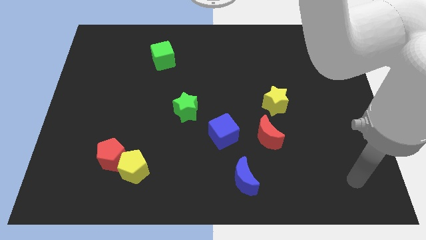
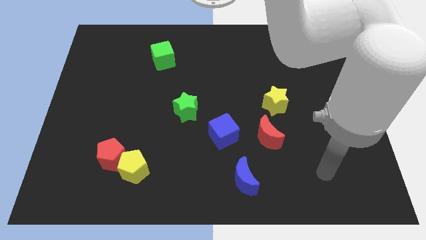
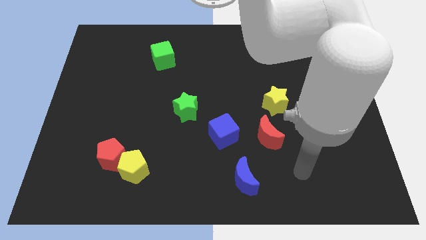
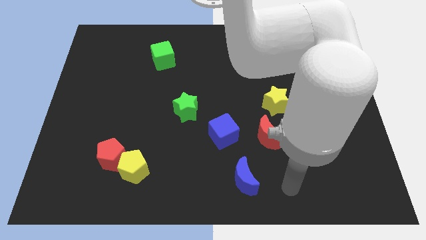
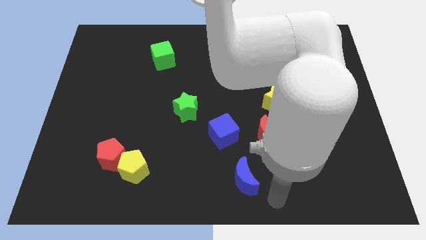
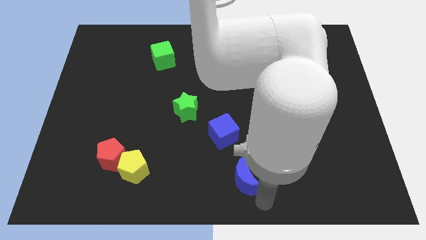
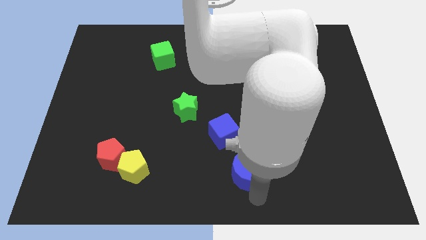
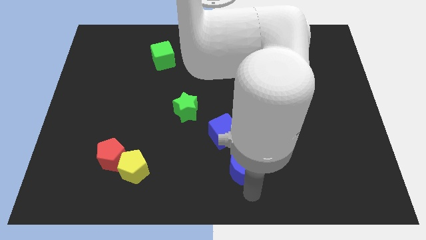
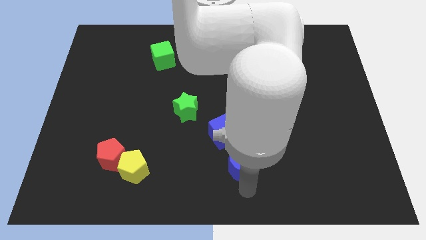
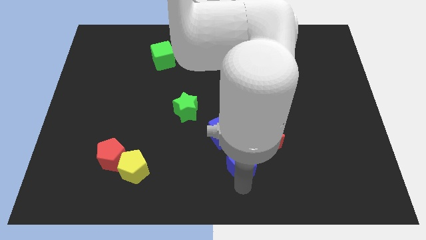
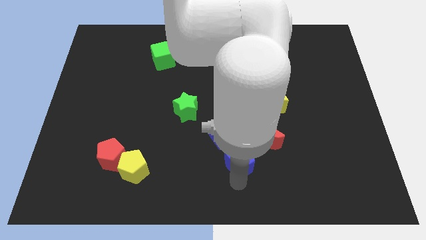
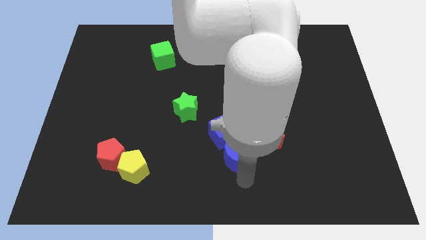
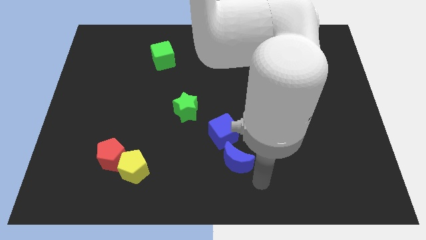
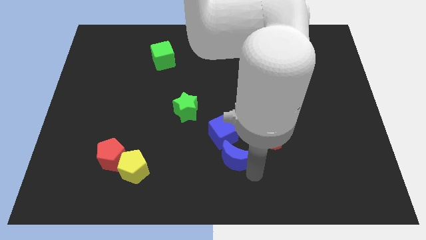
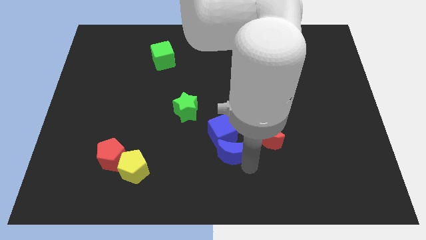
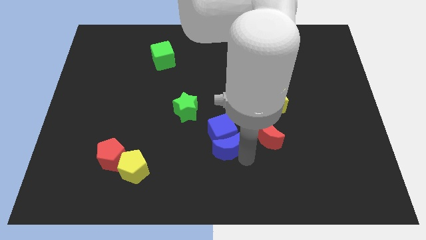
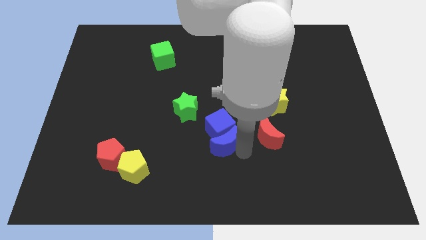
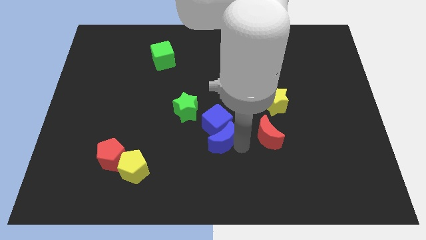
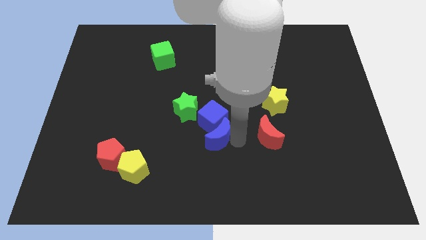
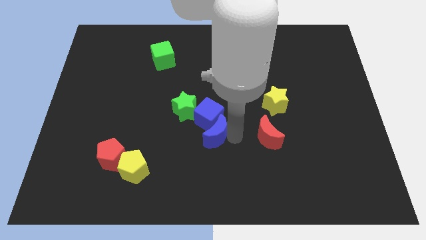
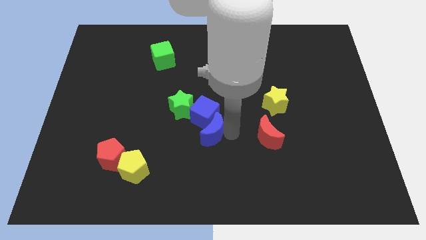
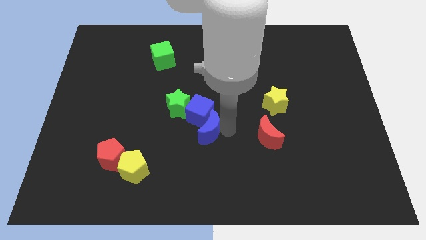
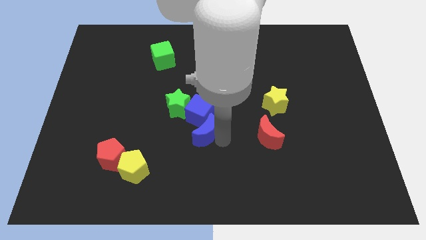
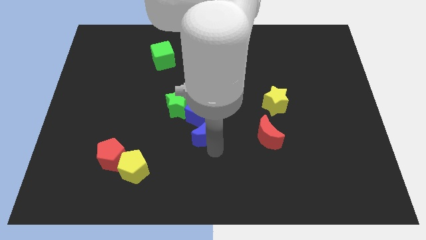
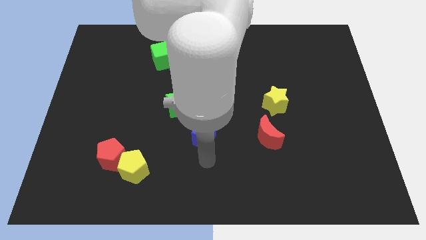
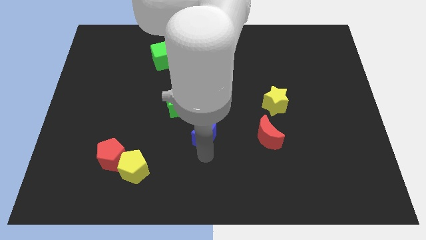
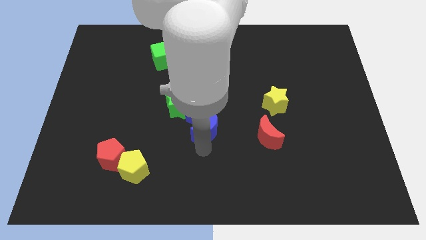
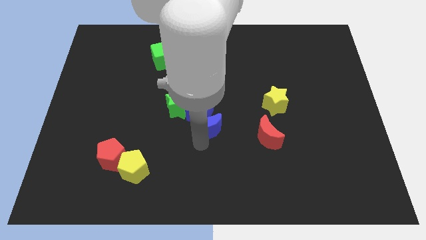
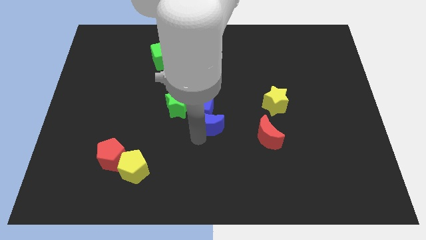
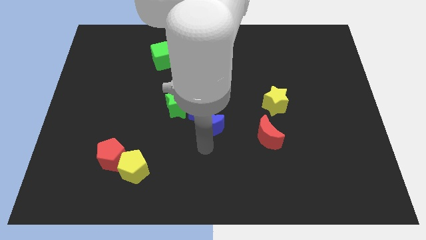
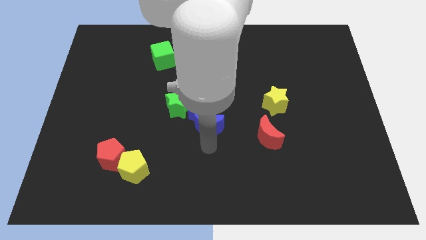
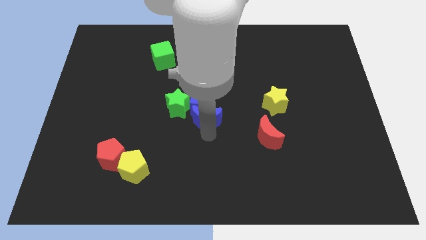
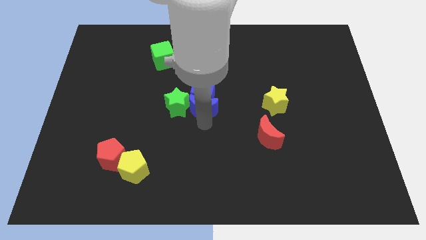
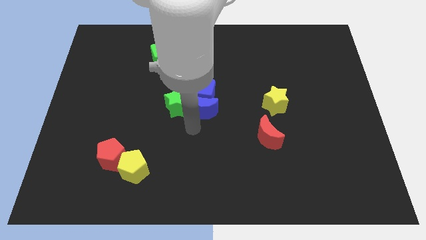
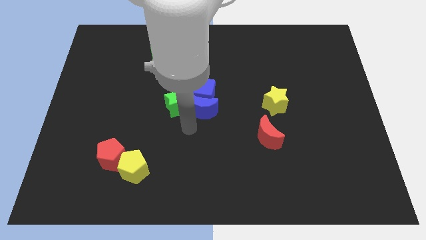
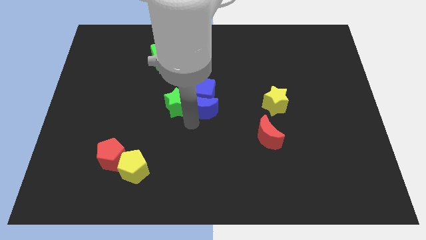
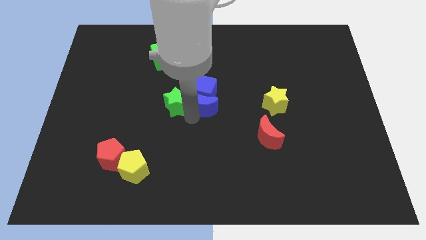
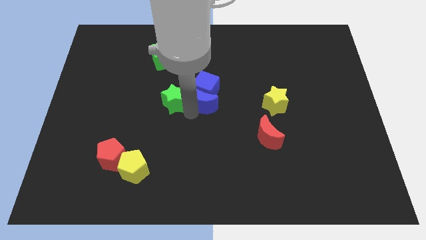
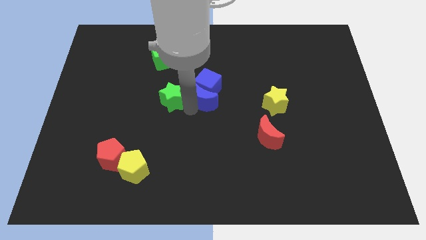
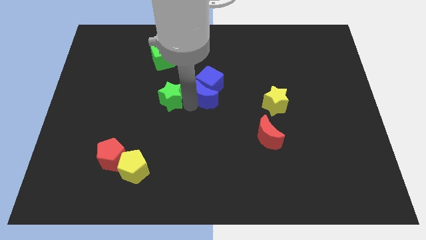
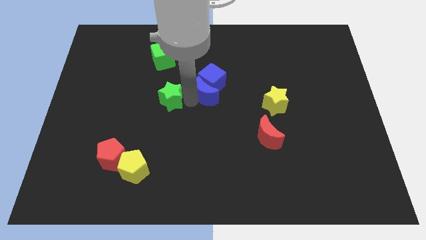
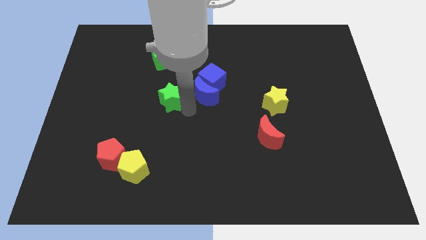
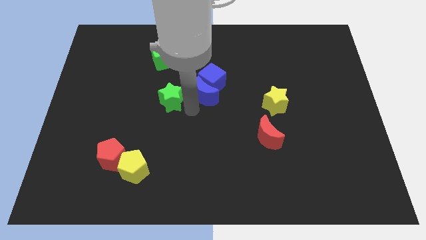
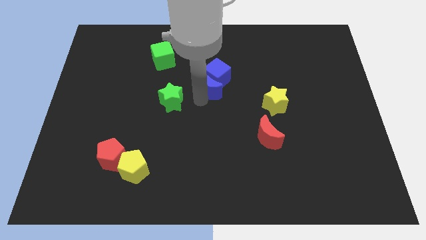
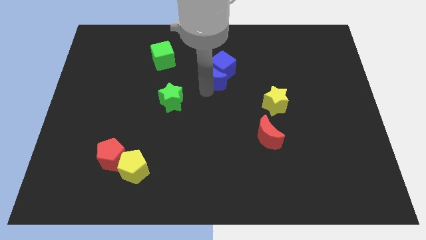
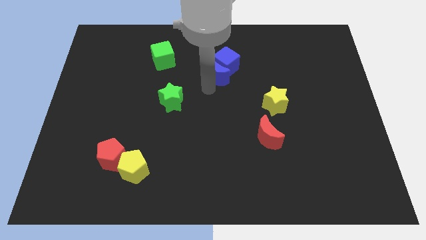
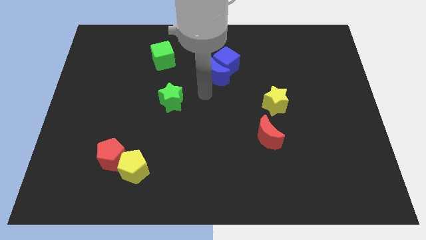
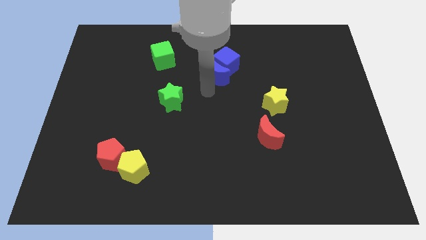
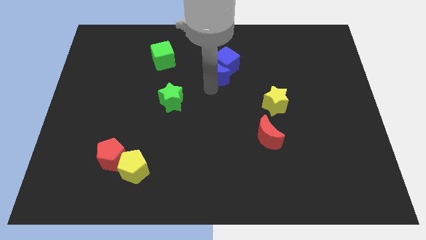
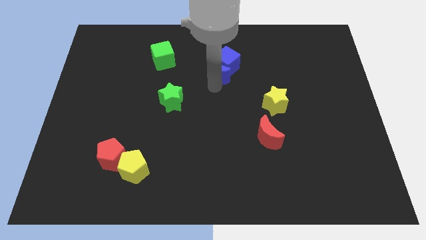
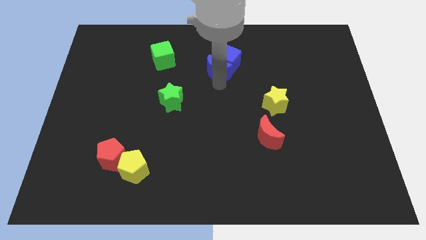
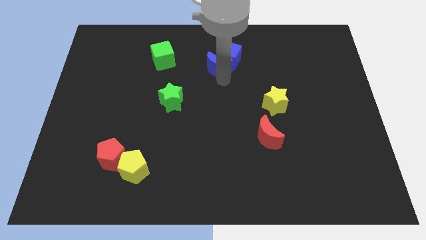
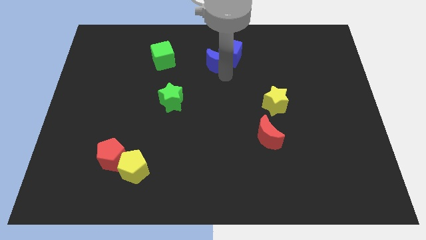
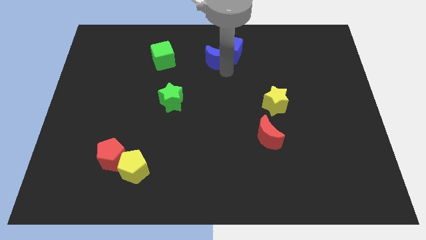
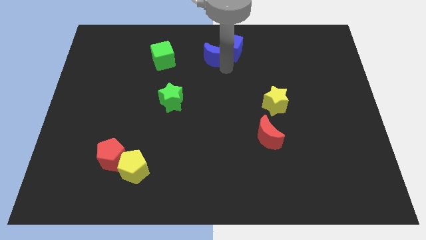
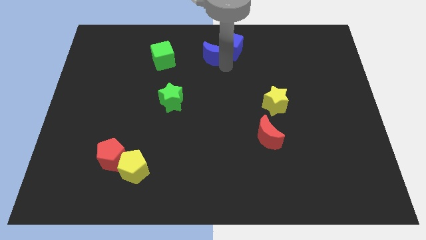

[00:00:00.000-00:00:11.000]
move the blue moon to the towards your base

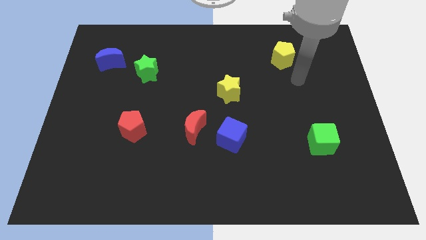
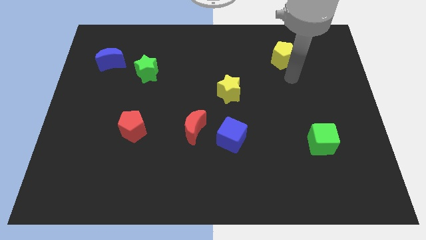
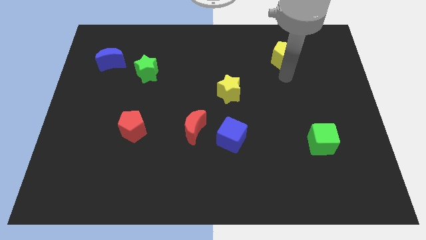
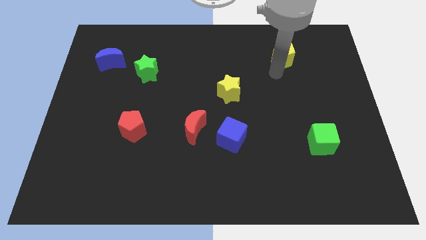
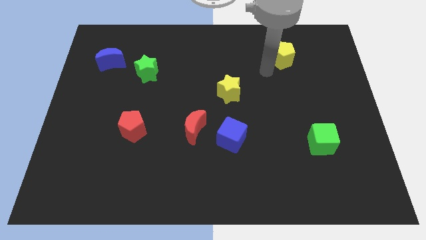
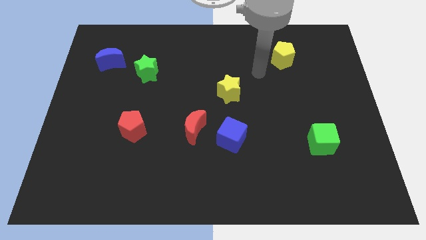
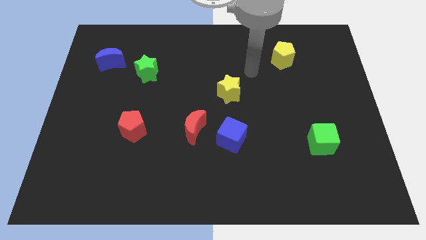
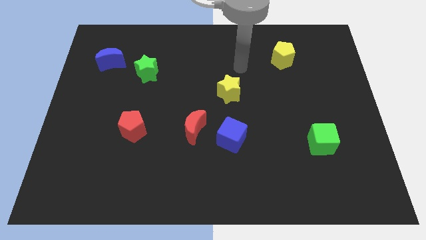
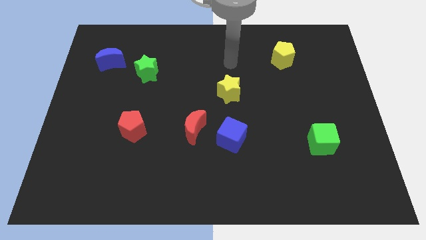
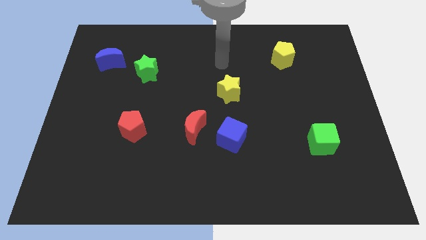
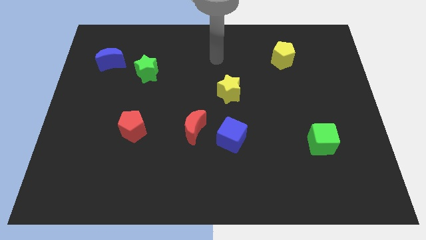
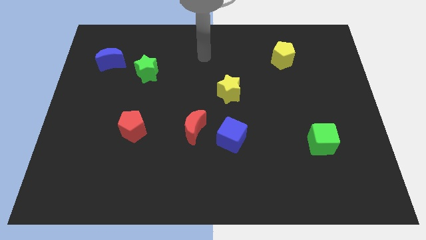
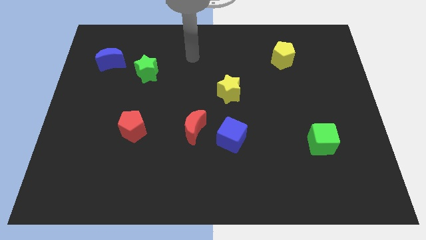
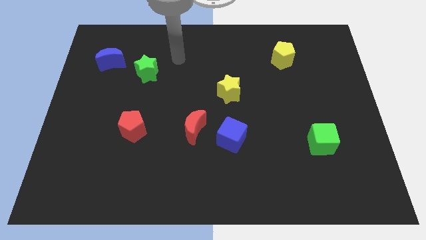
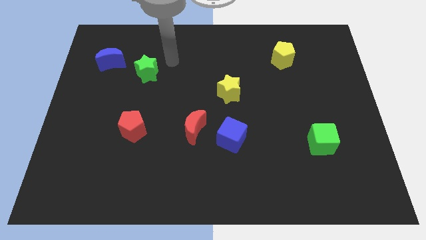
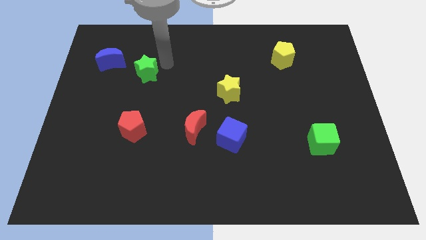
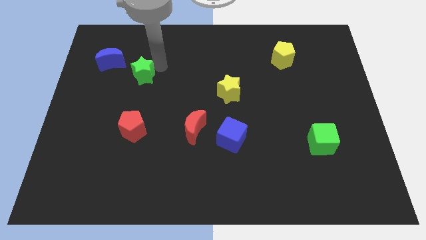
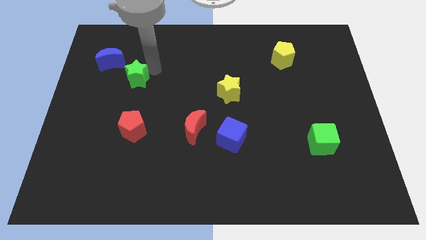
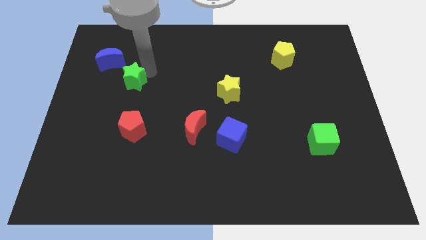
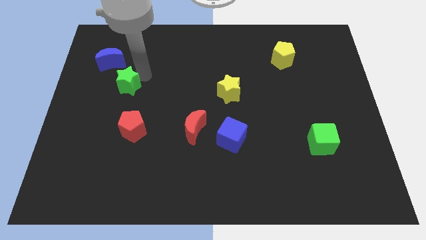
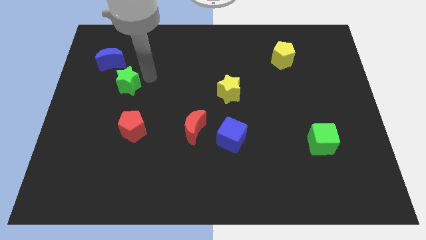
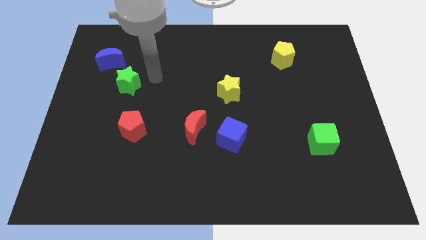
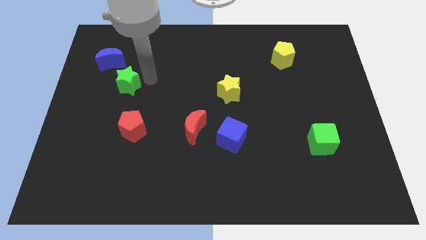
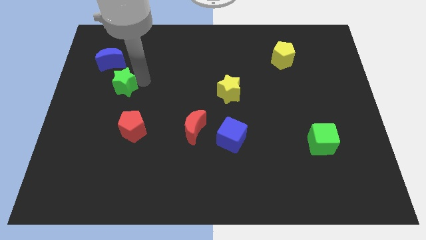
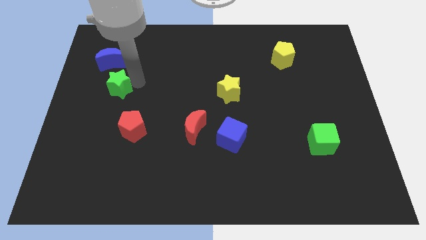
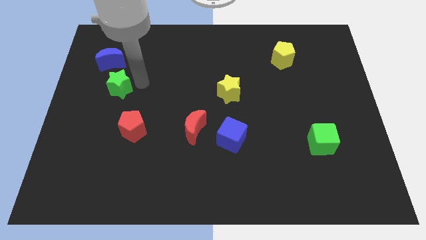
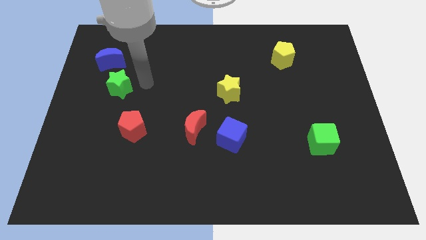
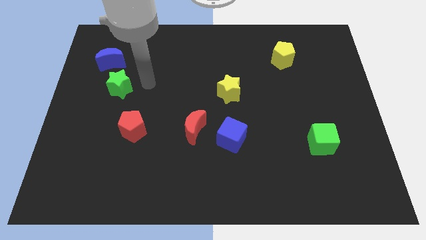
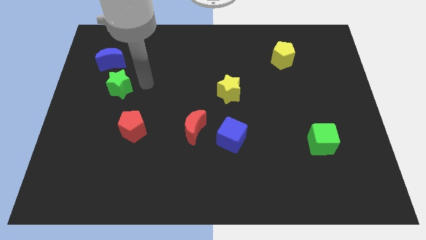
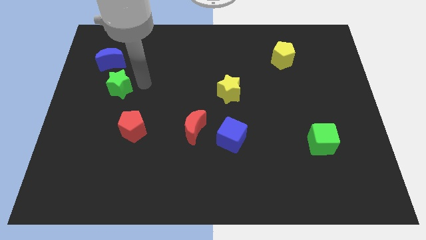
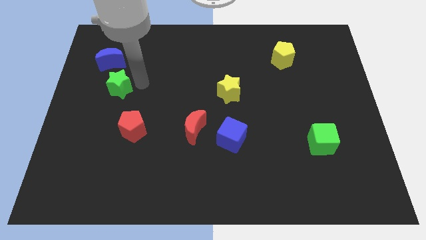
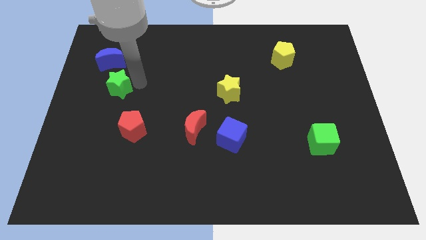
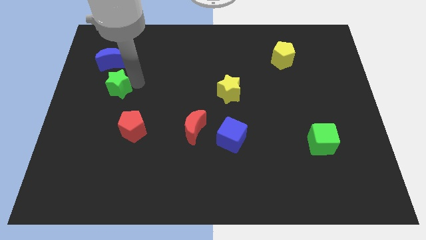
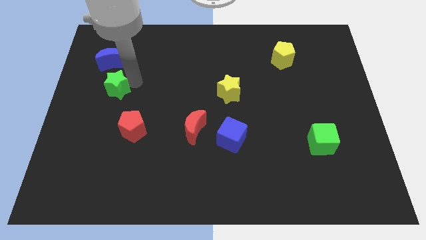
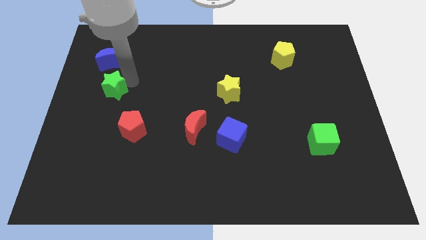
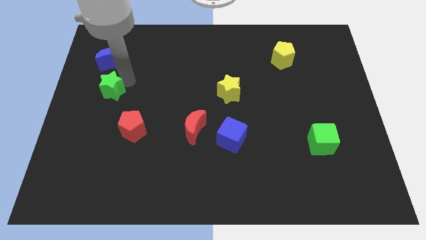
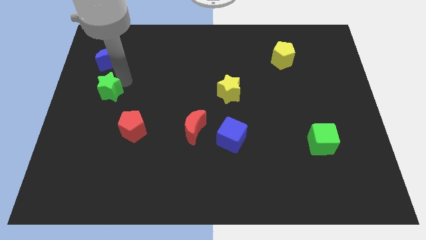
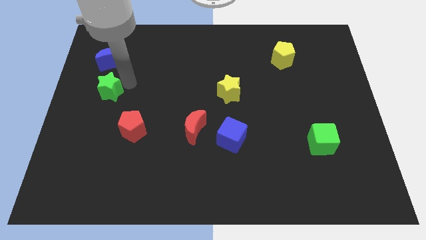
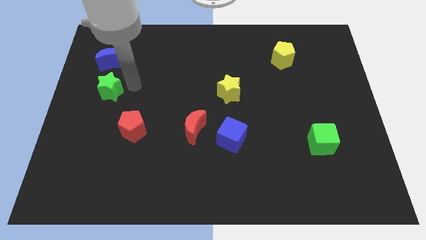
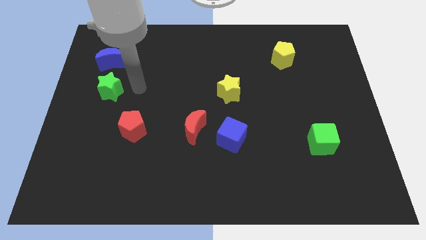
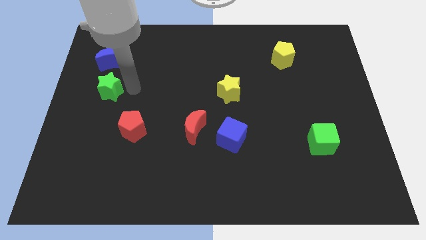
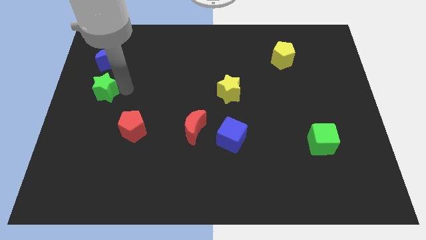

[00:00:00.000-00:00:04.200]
push the green star to the left side of the board
